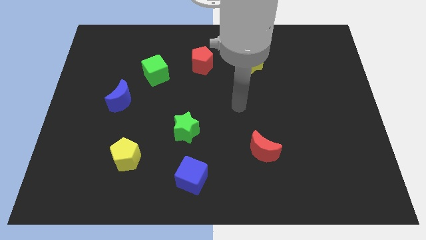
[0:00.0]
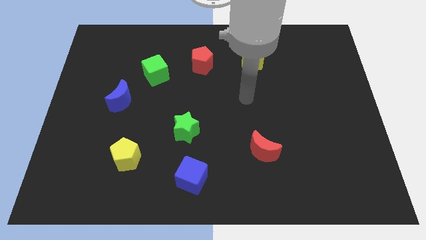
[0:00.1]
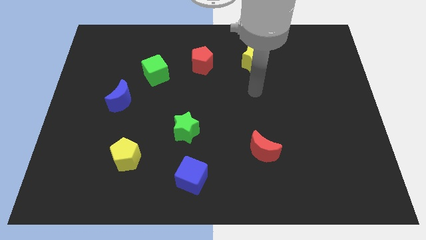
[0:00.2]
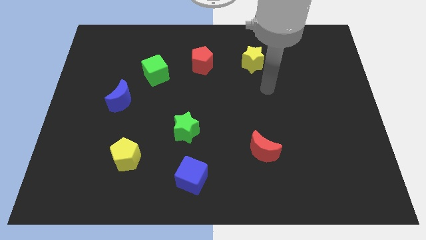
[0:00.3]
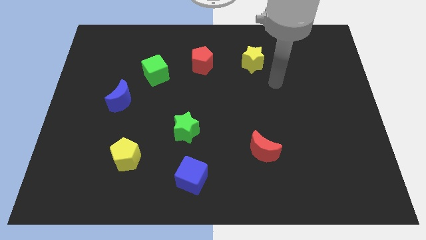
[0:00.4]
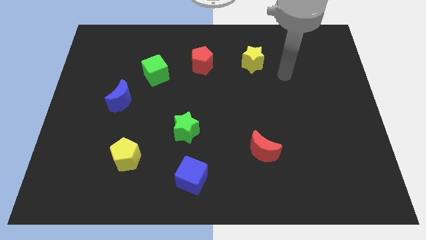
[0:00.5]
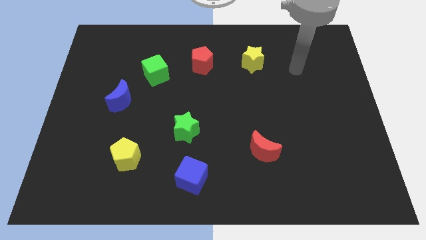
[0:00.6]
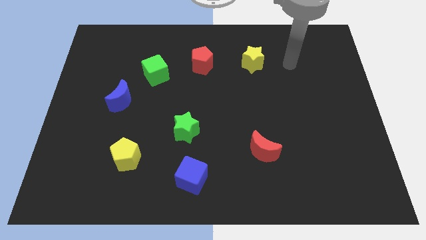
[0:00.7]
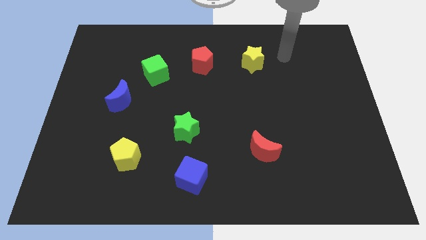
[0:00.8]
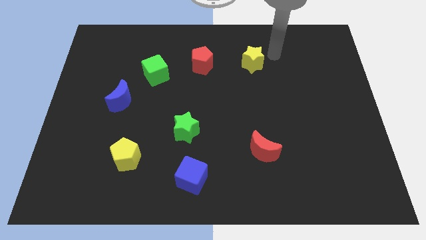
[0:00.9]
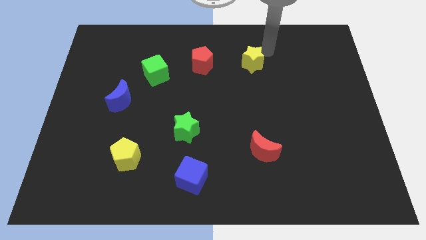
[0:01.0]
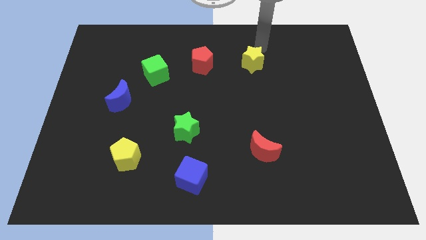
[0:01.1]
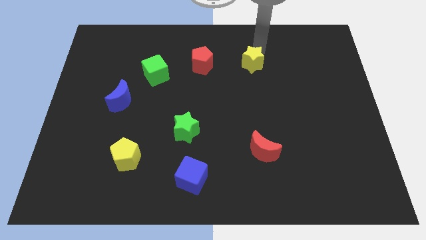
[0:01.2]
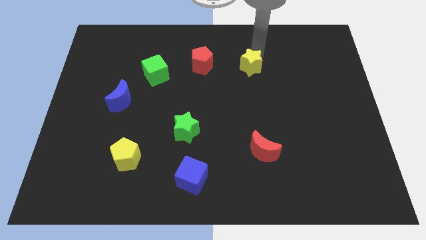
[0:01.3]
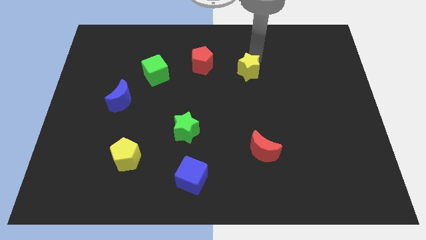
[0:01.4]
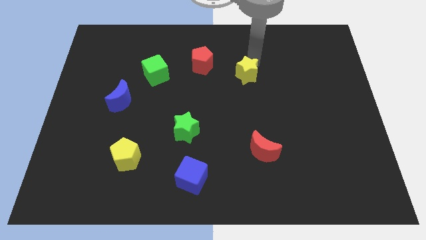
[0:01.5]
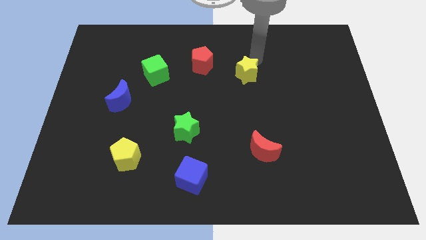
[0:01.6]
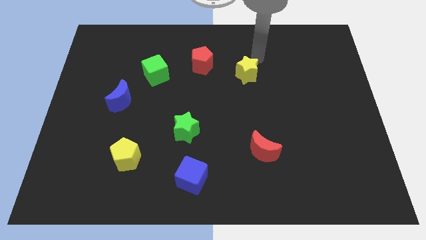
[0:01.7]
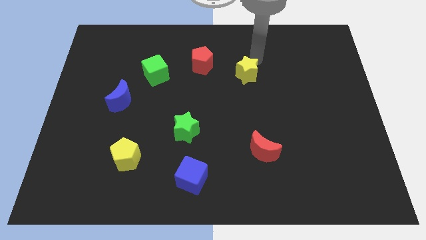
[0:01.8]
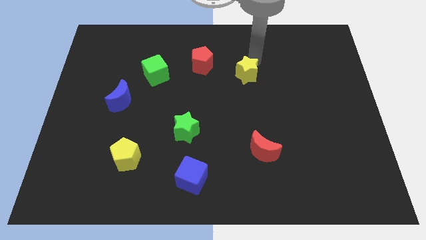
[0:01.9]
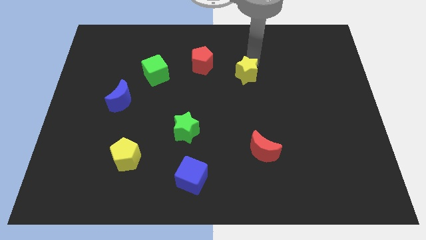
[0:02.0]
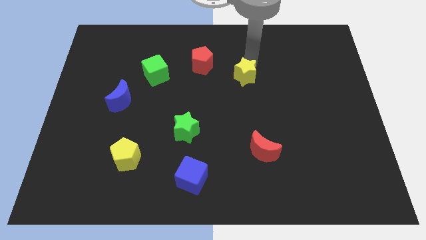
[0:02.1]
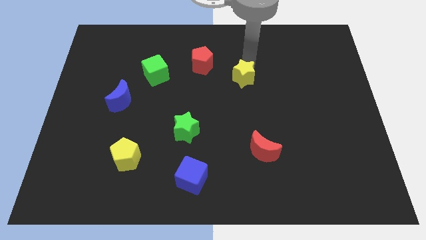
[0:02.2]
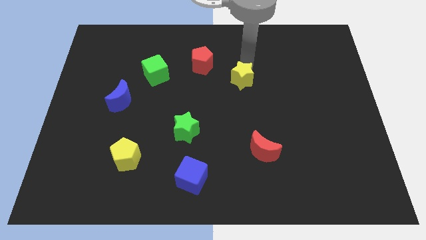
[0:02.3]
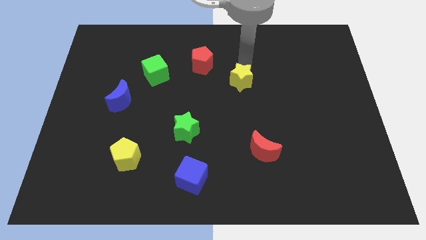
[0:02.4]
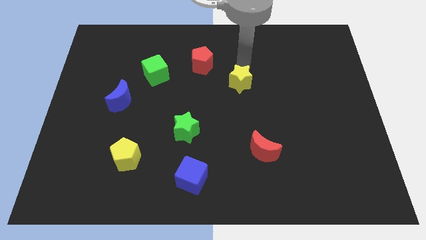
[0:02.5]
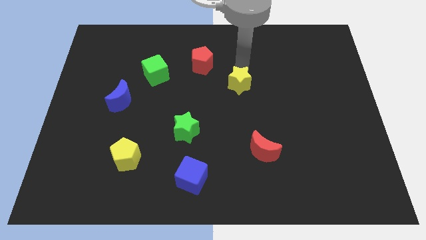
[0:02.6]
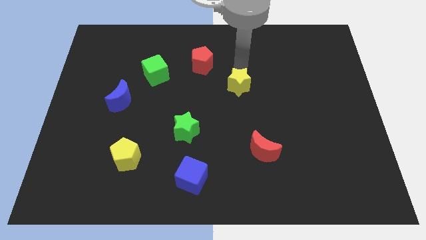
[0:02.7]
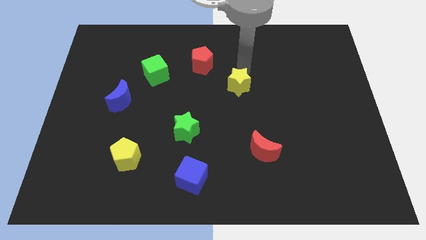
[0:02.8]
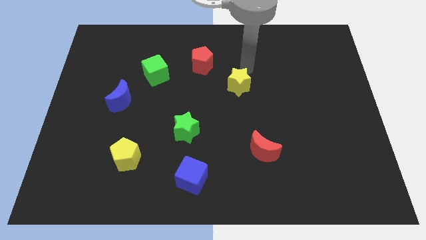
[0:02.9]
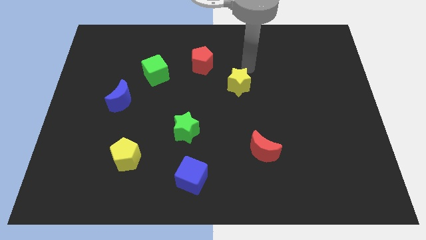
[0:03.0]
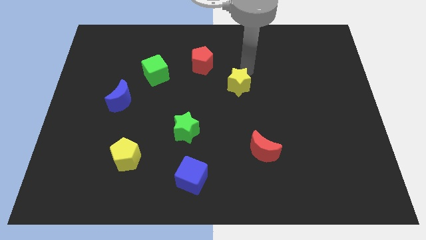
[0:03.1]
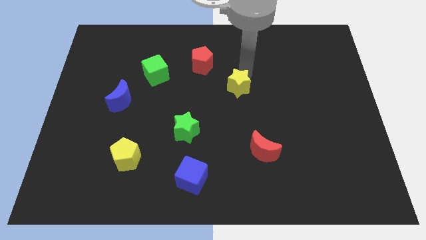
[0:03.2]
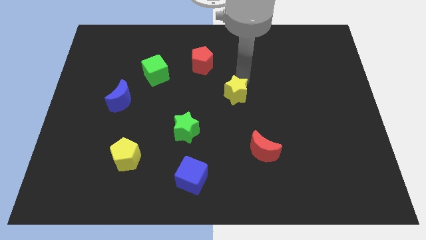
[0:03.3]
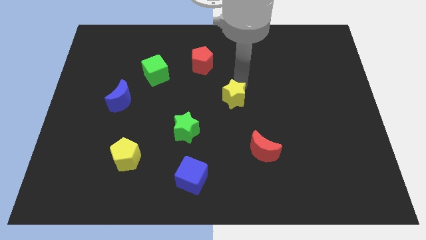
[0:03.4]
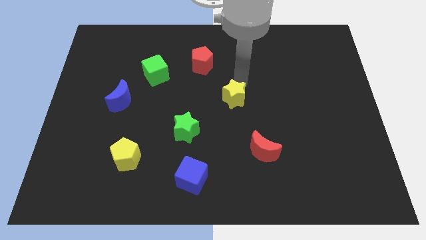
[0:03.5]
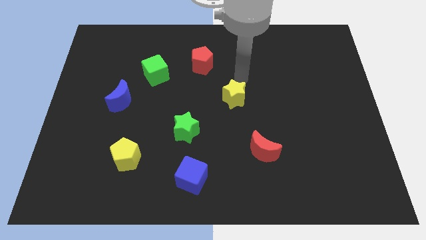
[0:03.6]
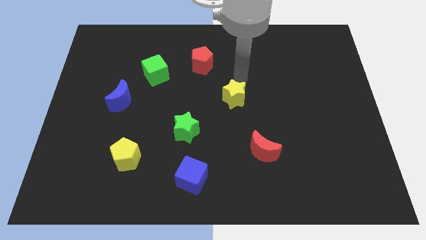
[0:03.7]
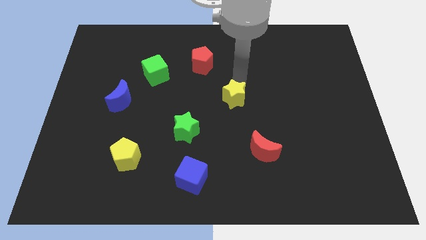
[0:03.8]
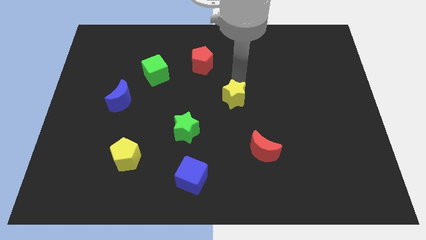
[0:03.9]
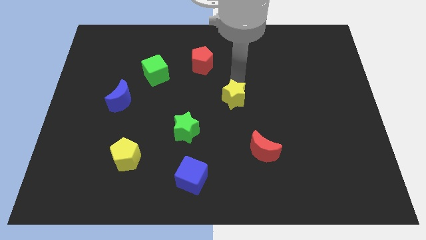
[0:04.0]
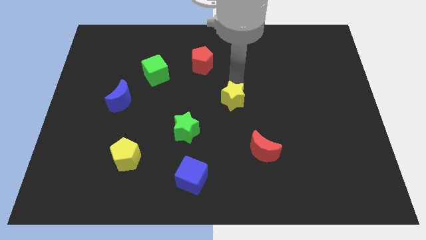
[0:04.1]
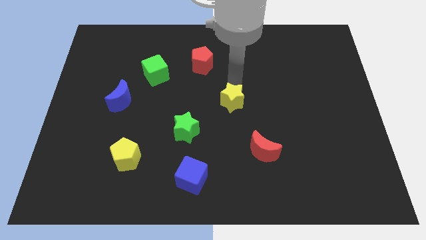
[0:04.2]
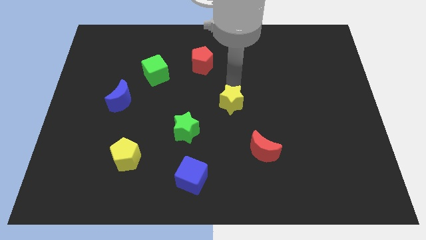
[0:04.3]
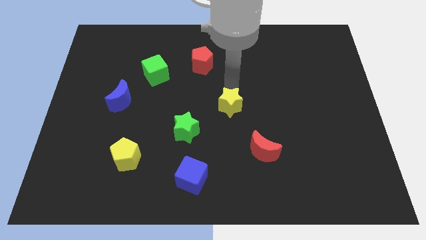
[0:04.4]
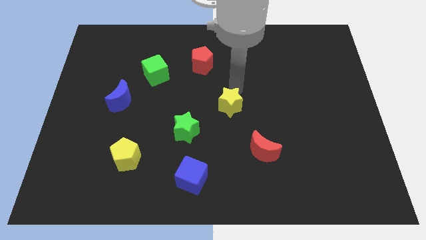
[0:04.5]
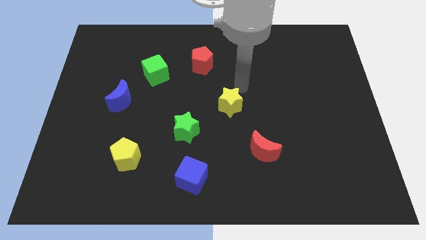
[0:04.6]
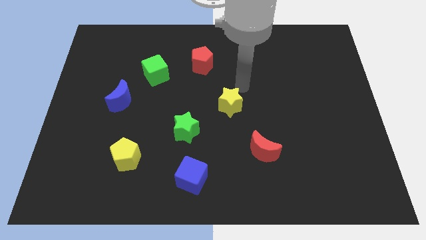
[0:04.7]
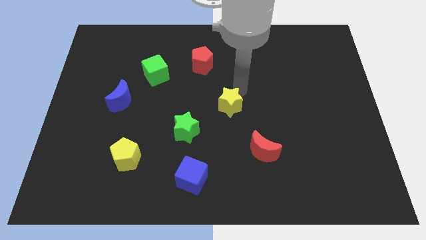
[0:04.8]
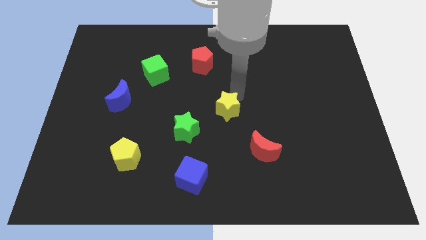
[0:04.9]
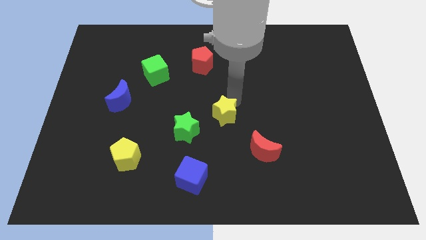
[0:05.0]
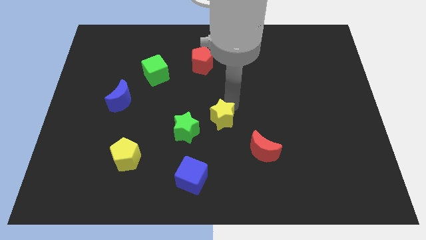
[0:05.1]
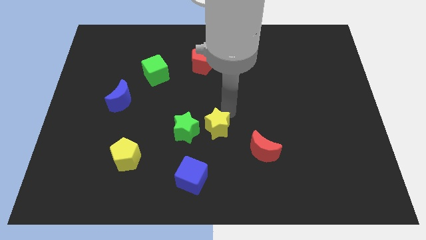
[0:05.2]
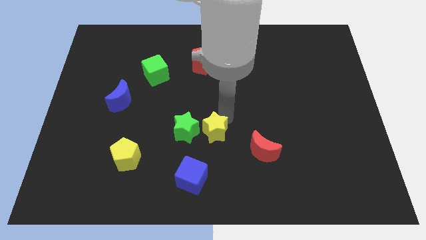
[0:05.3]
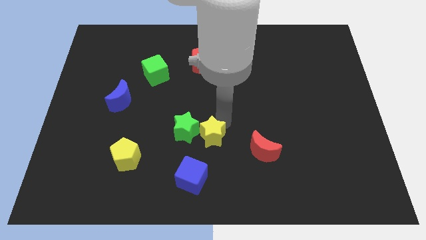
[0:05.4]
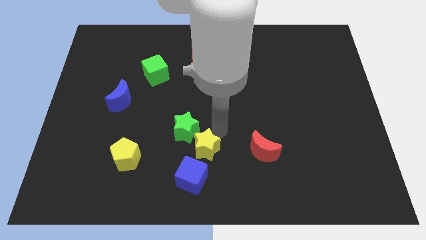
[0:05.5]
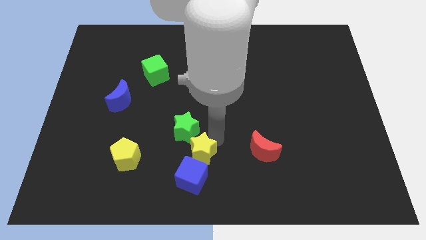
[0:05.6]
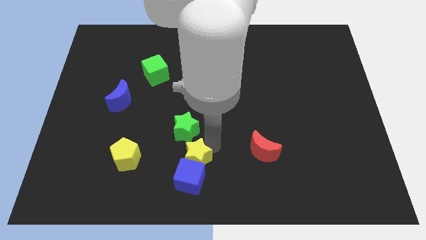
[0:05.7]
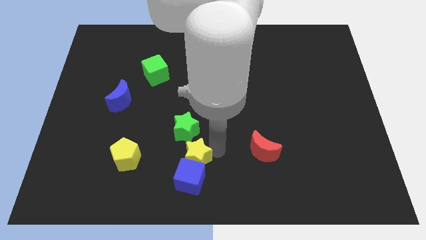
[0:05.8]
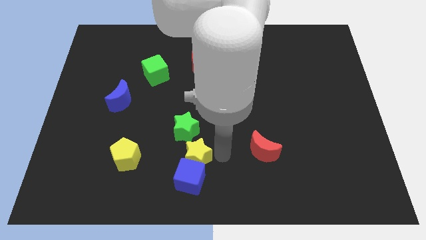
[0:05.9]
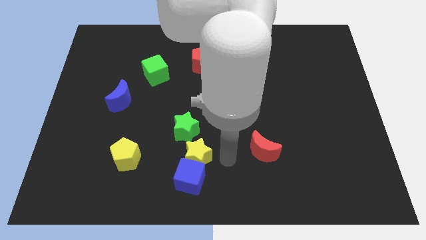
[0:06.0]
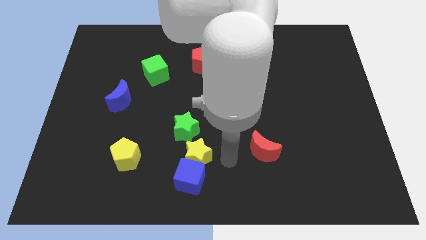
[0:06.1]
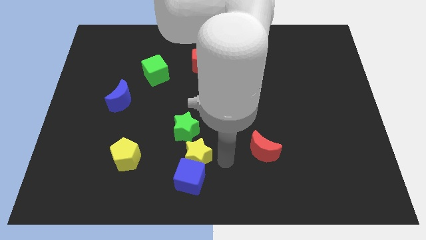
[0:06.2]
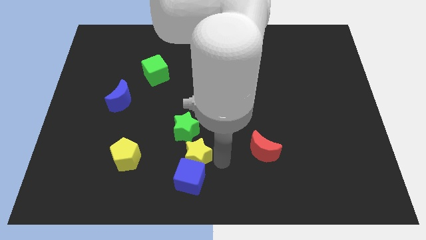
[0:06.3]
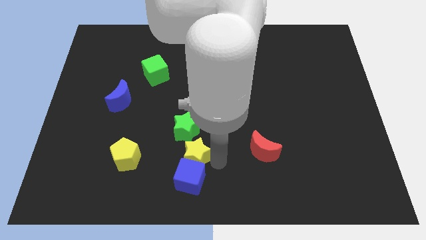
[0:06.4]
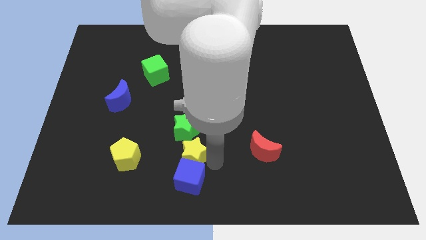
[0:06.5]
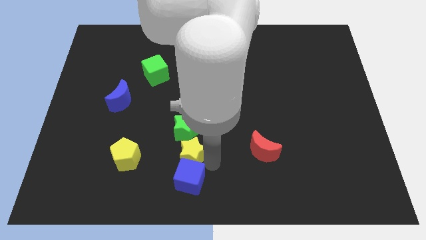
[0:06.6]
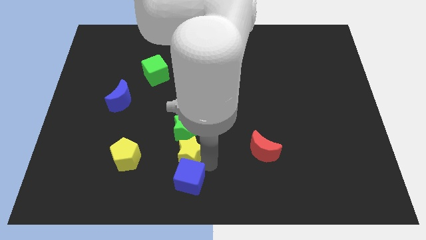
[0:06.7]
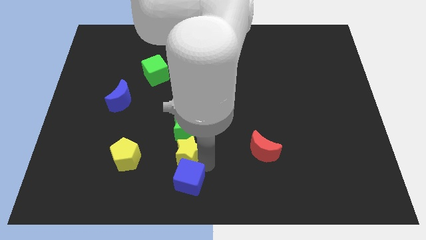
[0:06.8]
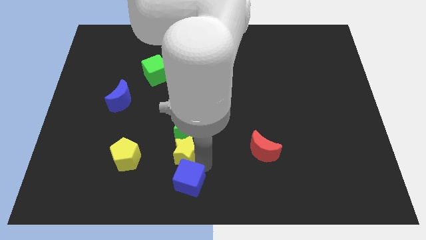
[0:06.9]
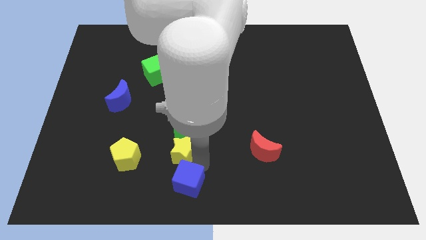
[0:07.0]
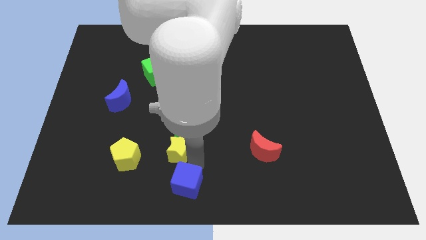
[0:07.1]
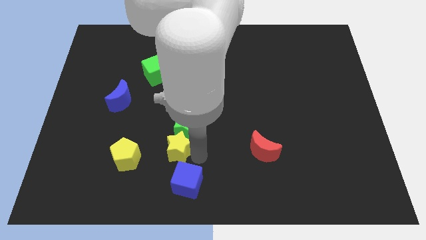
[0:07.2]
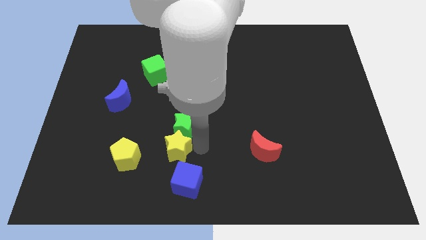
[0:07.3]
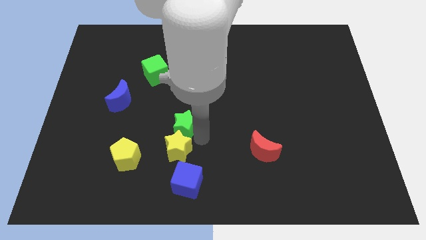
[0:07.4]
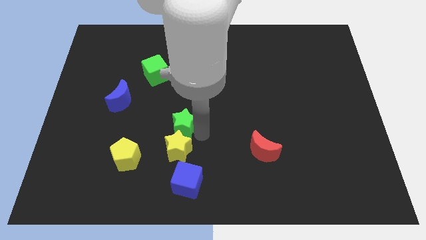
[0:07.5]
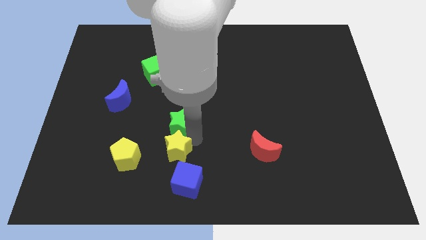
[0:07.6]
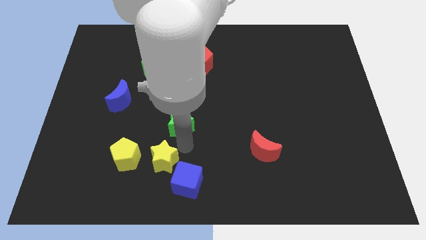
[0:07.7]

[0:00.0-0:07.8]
push the yellow star to the left of the blue cube

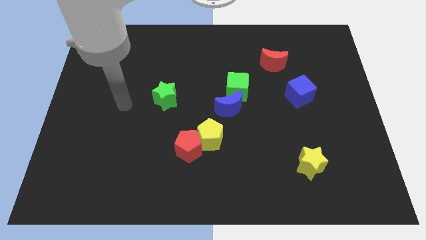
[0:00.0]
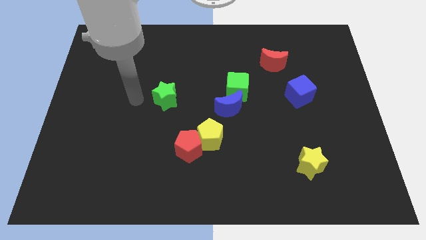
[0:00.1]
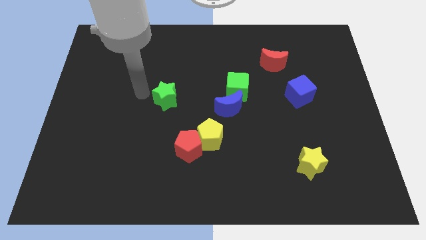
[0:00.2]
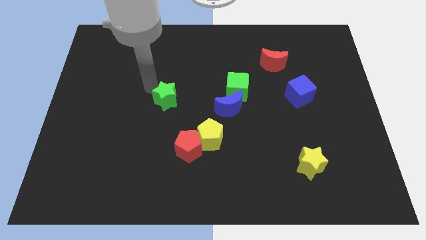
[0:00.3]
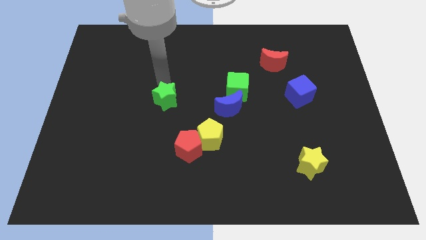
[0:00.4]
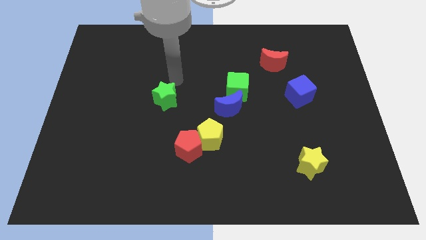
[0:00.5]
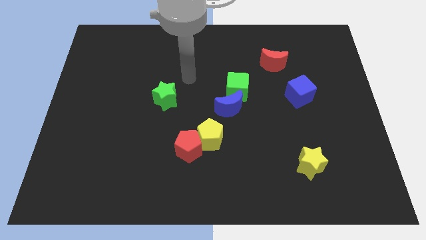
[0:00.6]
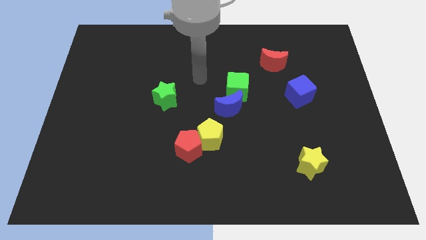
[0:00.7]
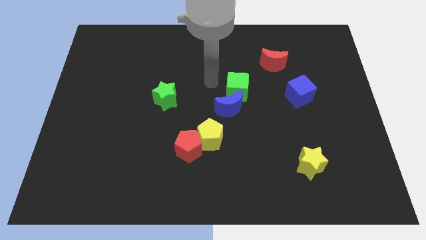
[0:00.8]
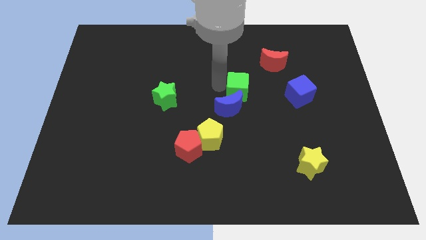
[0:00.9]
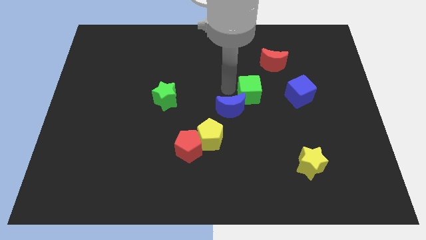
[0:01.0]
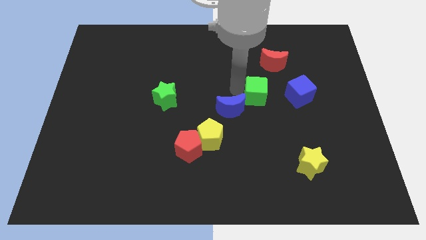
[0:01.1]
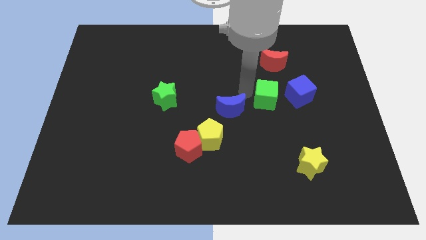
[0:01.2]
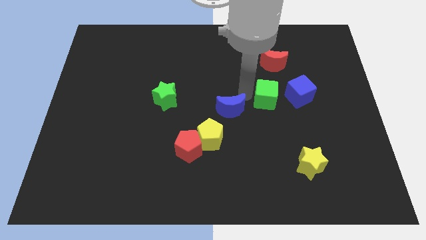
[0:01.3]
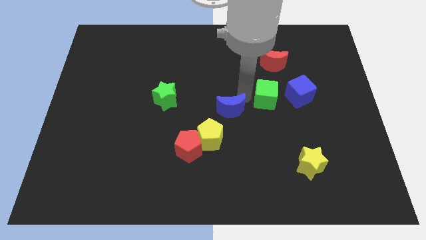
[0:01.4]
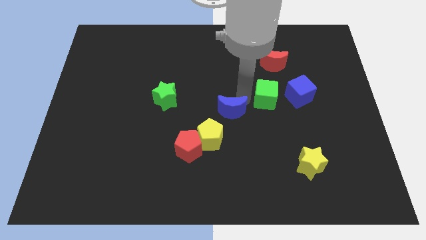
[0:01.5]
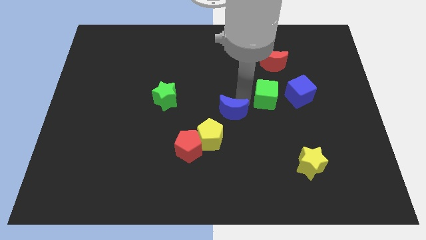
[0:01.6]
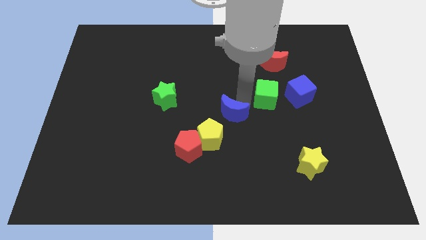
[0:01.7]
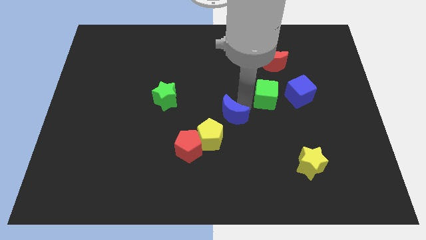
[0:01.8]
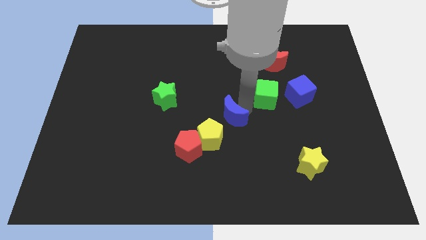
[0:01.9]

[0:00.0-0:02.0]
slide the blue moon to the top right side of the red pentagon
